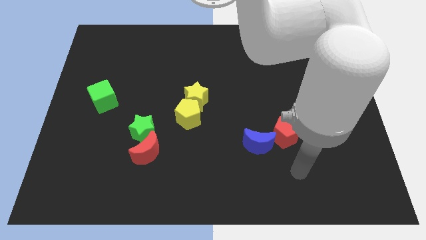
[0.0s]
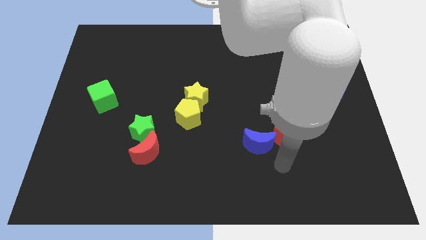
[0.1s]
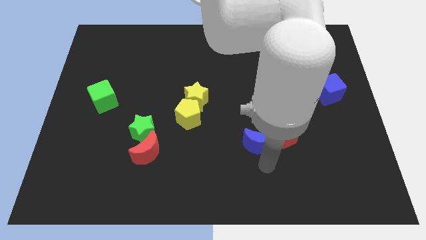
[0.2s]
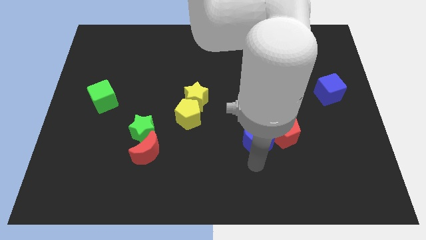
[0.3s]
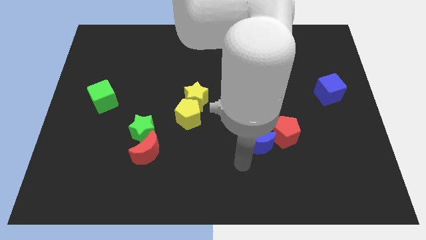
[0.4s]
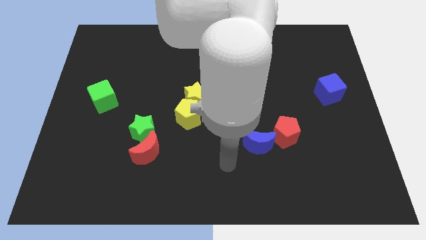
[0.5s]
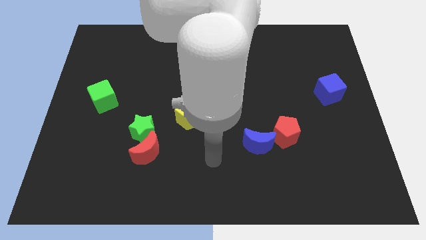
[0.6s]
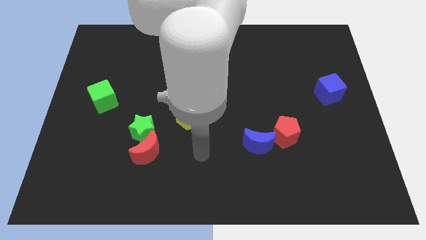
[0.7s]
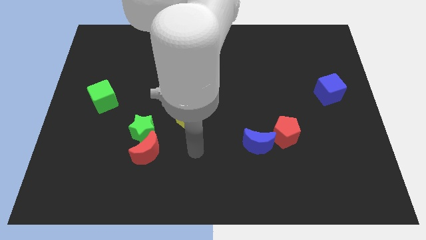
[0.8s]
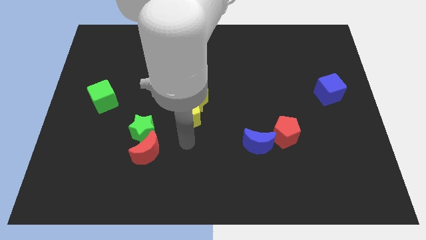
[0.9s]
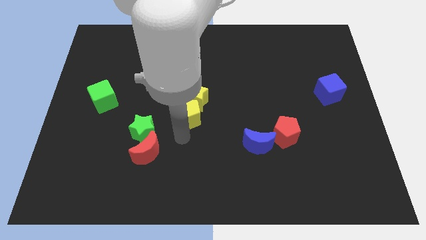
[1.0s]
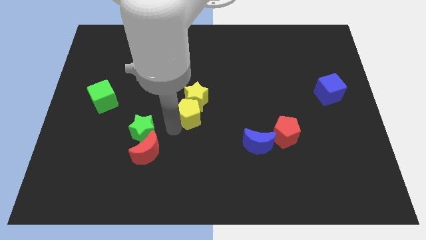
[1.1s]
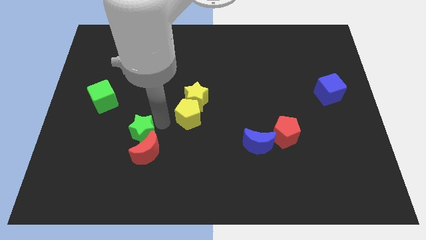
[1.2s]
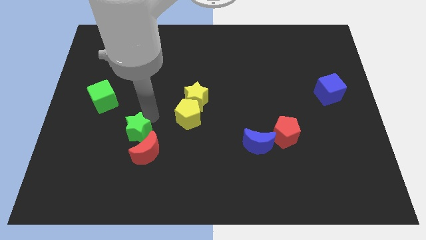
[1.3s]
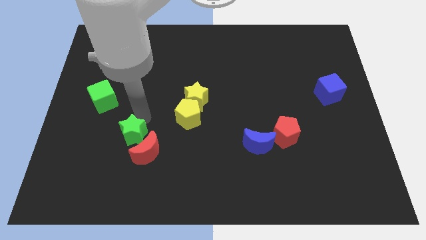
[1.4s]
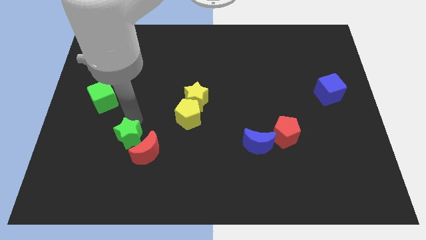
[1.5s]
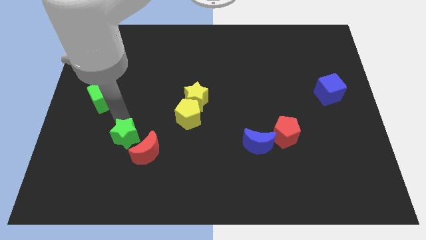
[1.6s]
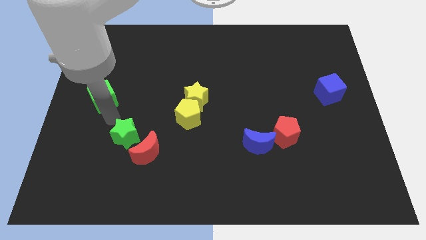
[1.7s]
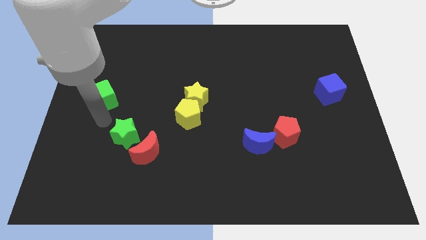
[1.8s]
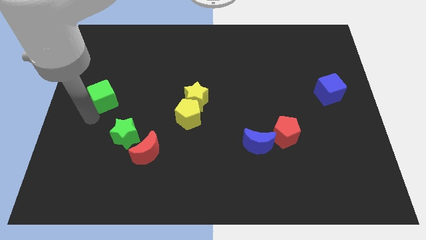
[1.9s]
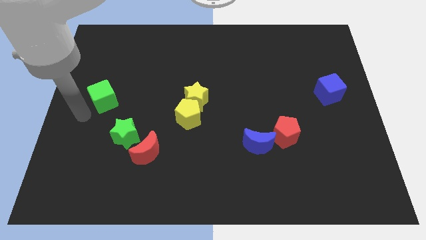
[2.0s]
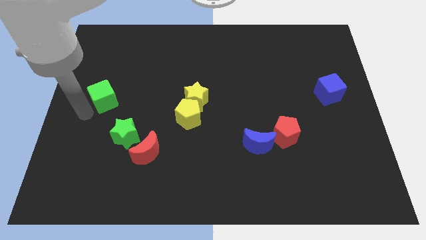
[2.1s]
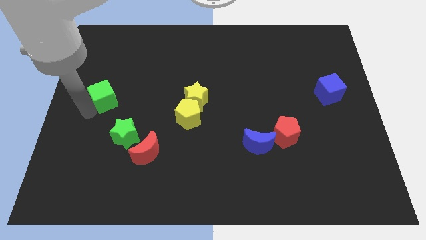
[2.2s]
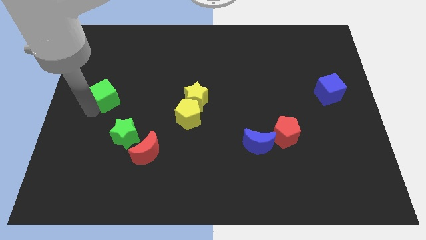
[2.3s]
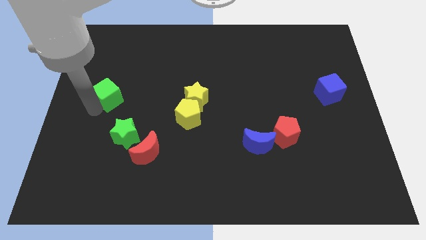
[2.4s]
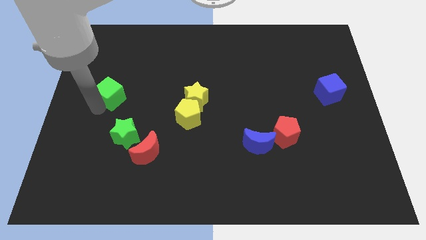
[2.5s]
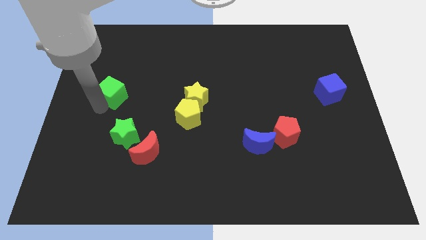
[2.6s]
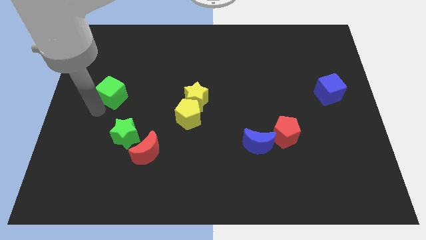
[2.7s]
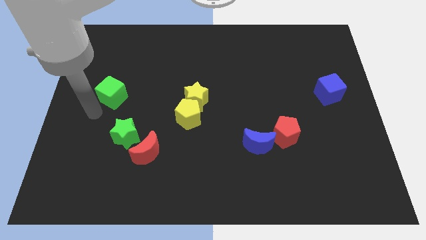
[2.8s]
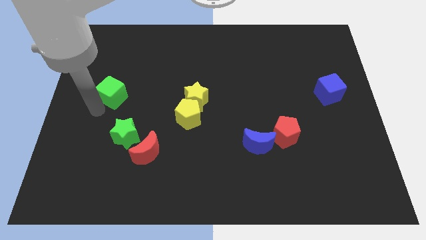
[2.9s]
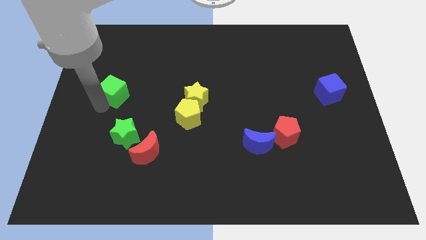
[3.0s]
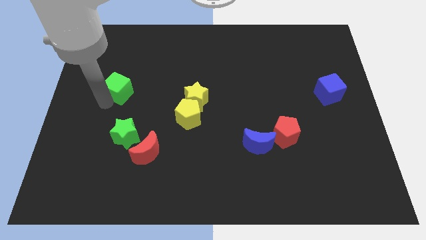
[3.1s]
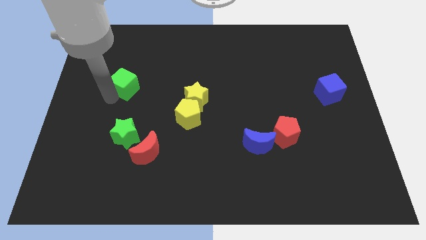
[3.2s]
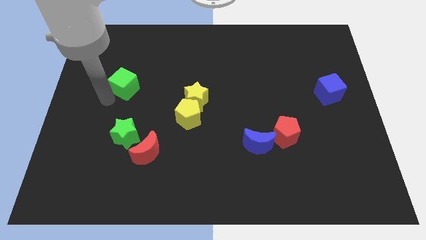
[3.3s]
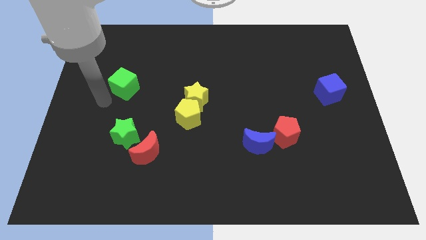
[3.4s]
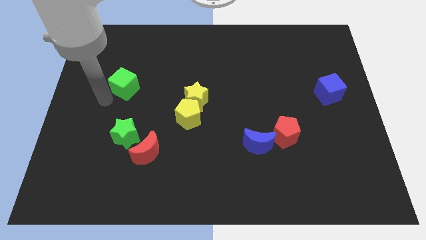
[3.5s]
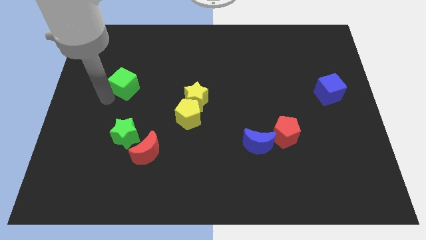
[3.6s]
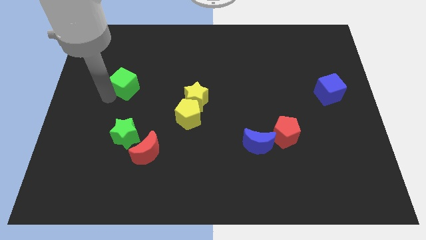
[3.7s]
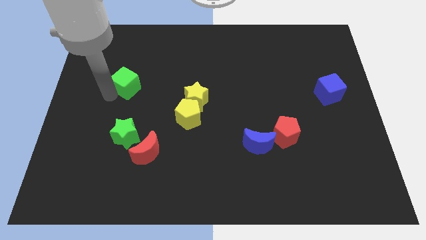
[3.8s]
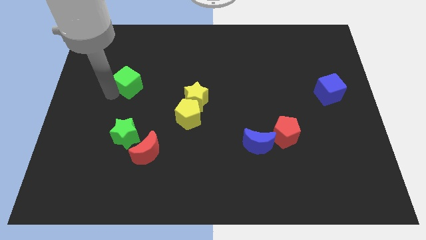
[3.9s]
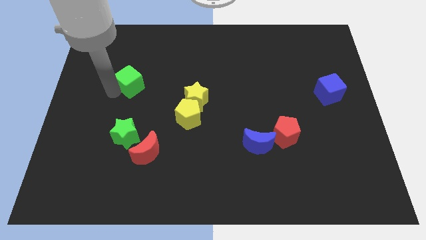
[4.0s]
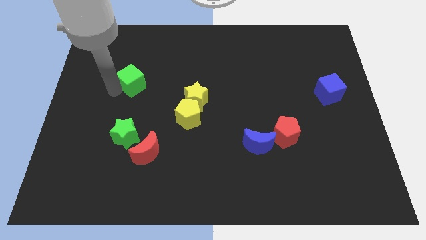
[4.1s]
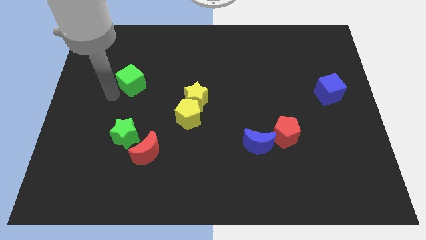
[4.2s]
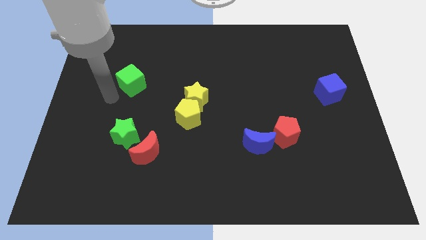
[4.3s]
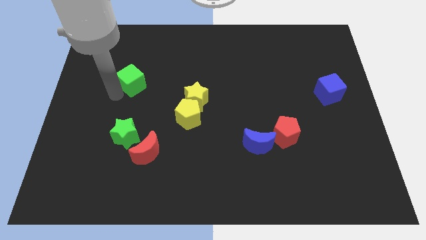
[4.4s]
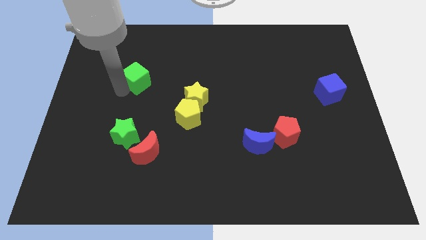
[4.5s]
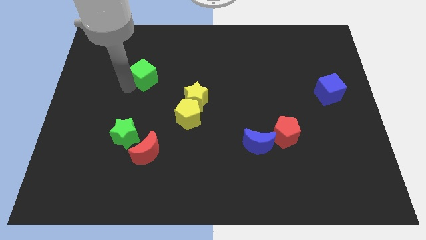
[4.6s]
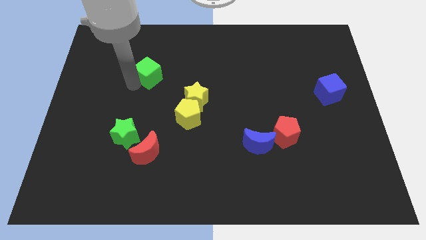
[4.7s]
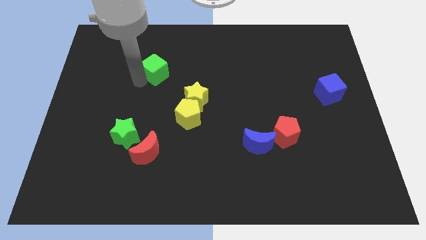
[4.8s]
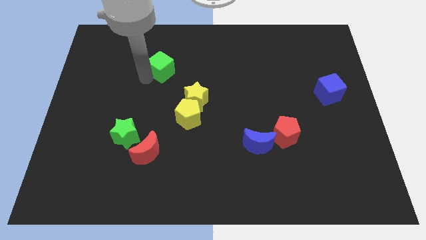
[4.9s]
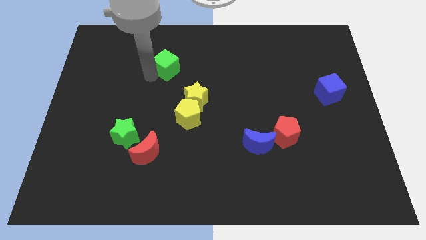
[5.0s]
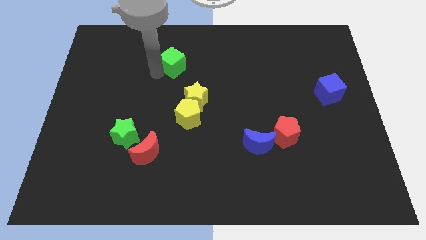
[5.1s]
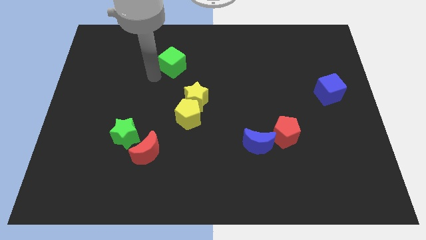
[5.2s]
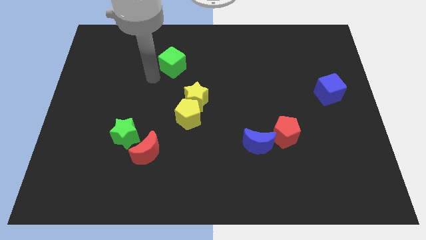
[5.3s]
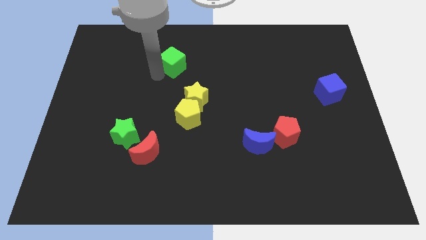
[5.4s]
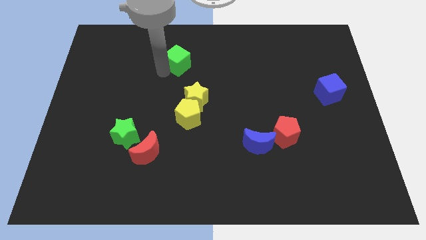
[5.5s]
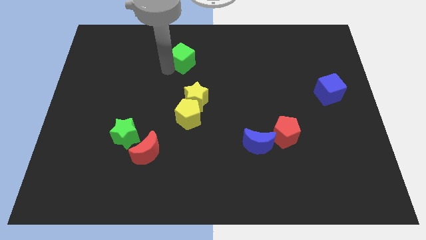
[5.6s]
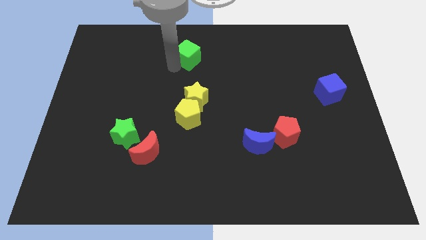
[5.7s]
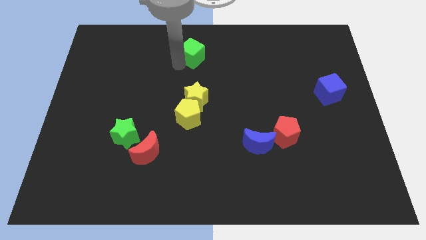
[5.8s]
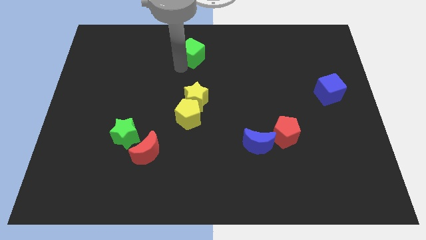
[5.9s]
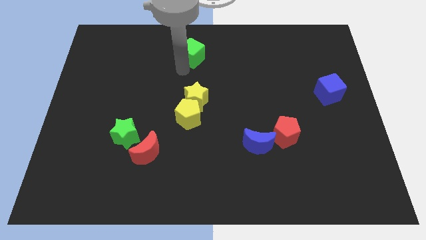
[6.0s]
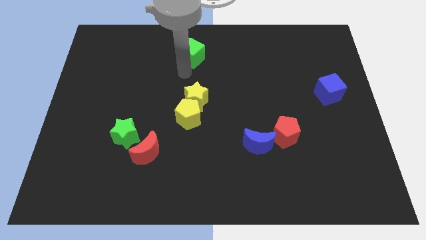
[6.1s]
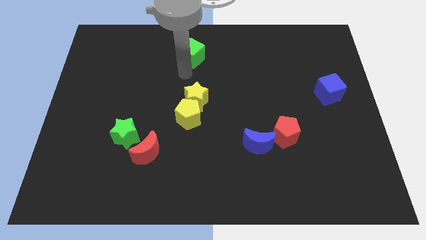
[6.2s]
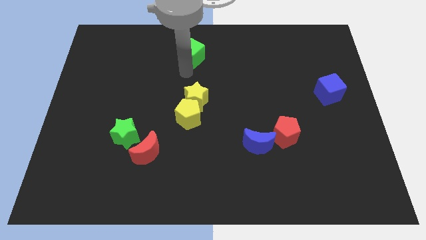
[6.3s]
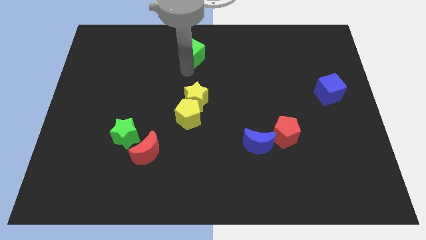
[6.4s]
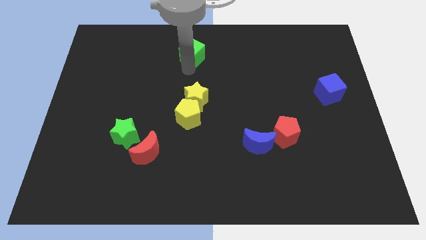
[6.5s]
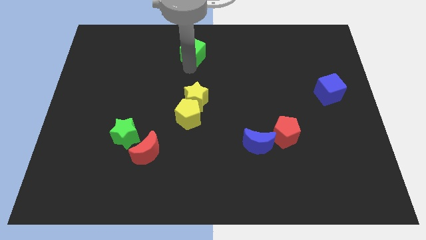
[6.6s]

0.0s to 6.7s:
move the green cube to the towards your base
